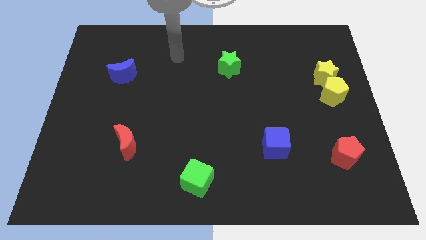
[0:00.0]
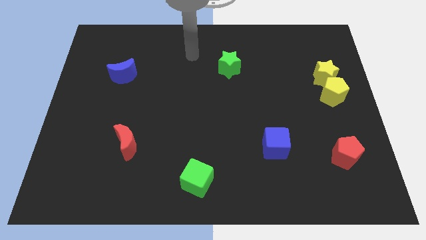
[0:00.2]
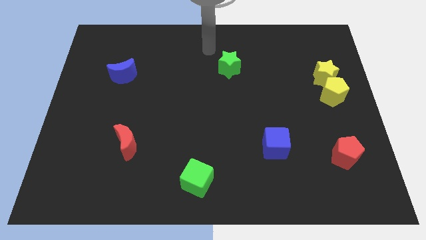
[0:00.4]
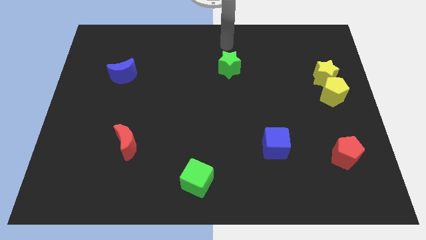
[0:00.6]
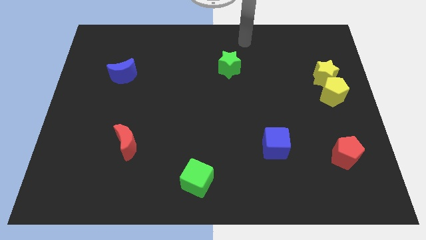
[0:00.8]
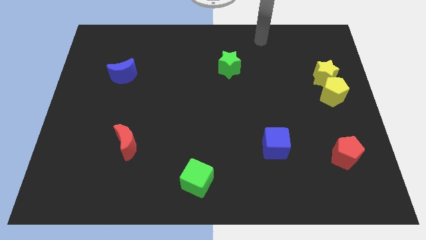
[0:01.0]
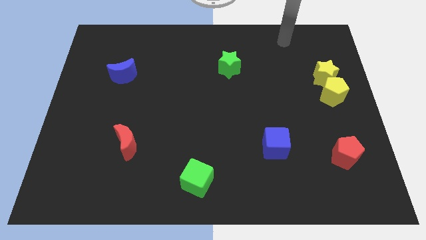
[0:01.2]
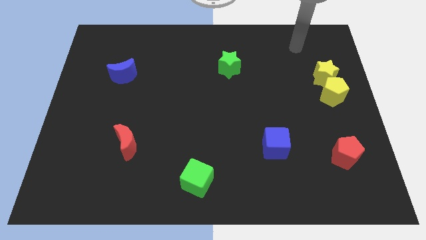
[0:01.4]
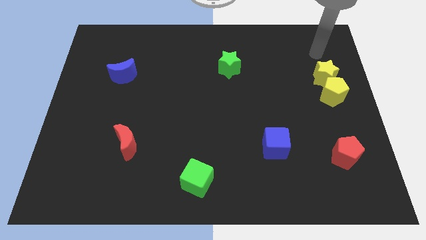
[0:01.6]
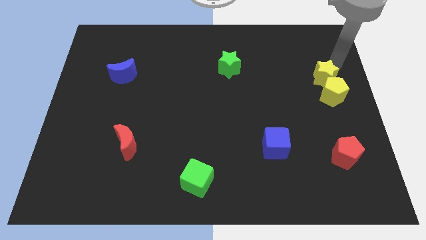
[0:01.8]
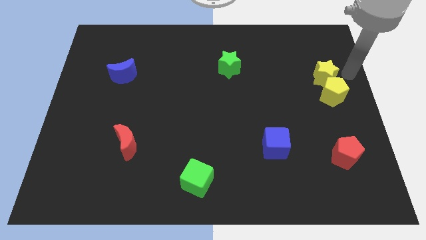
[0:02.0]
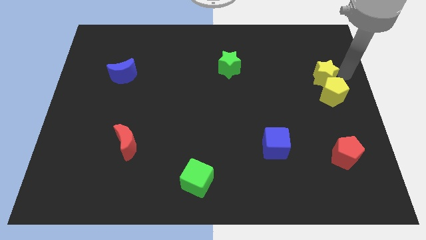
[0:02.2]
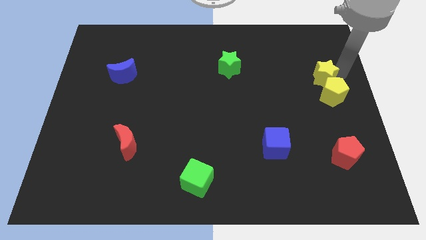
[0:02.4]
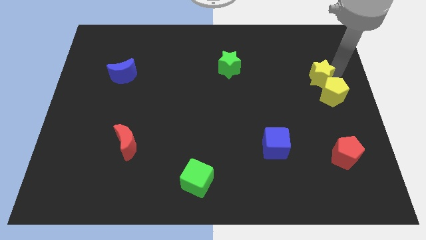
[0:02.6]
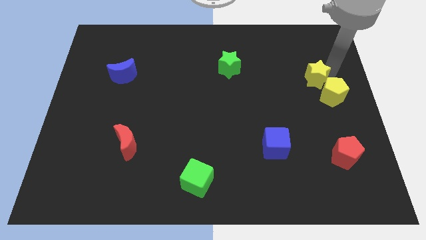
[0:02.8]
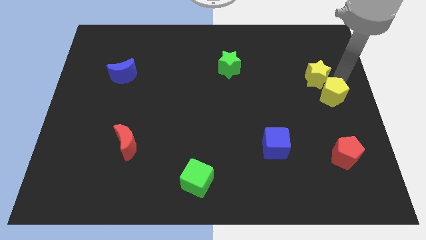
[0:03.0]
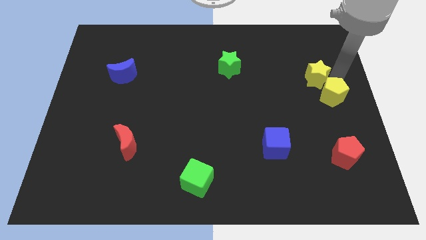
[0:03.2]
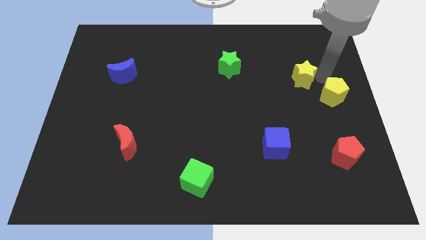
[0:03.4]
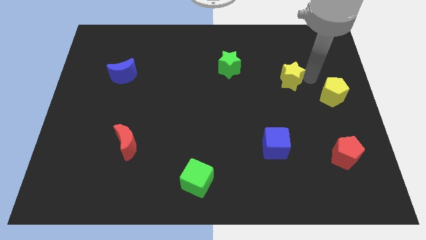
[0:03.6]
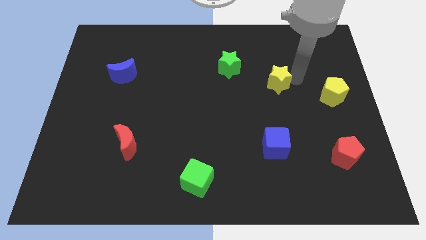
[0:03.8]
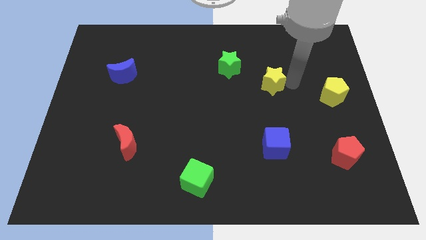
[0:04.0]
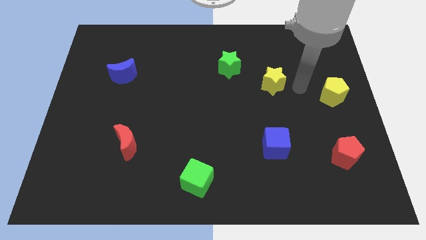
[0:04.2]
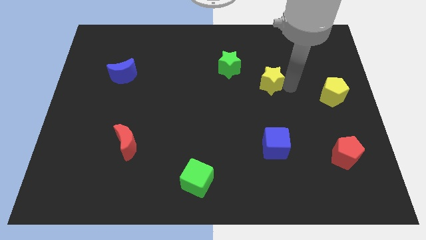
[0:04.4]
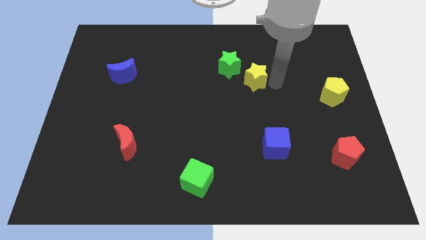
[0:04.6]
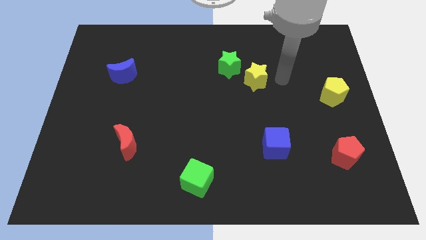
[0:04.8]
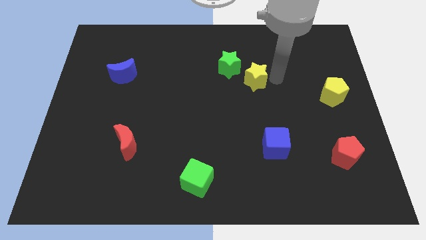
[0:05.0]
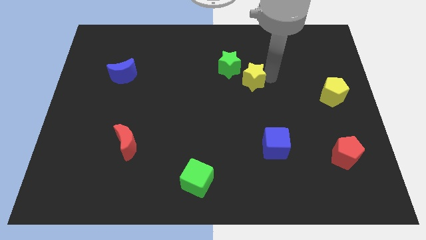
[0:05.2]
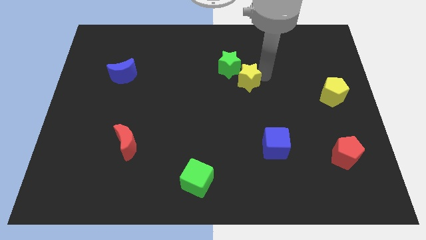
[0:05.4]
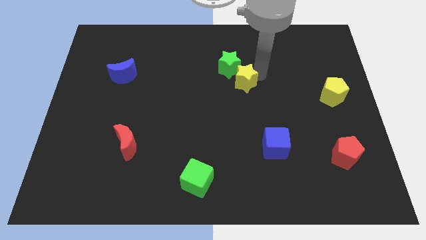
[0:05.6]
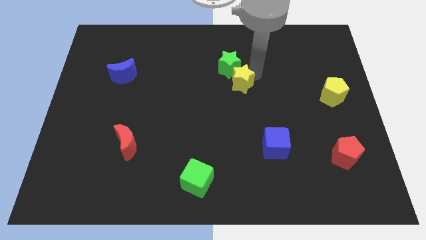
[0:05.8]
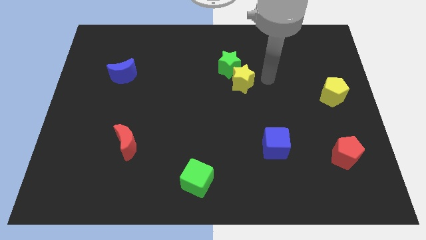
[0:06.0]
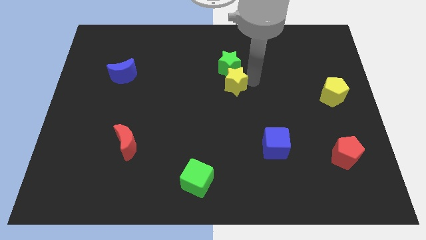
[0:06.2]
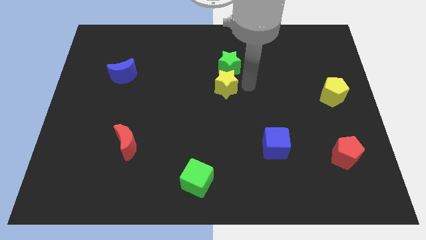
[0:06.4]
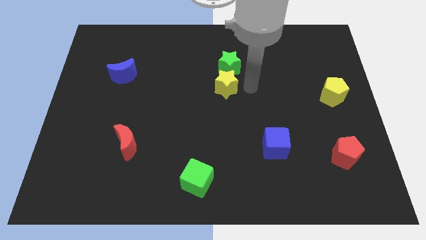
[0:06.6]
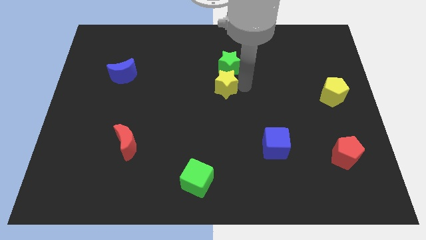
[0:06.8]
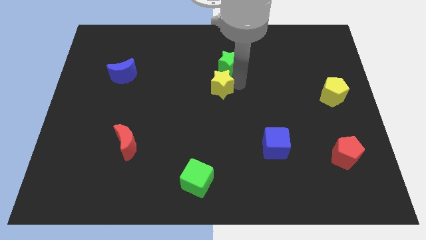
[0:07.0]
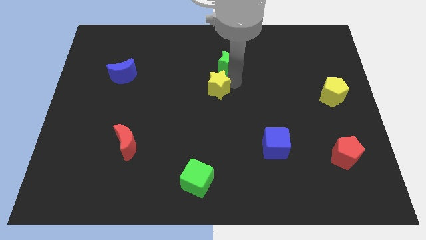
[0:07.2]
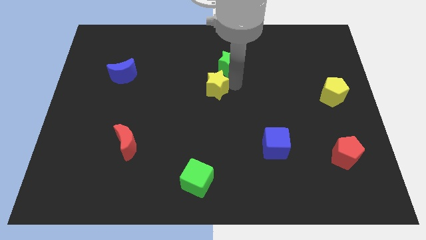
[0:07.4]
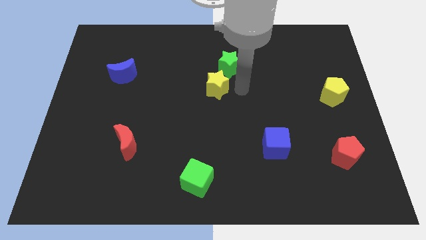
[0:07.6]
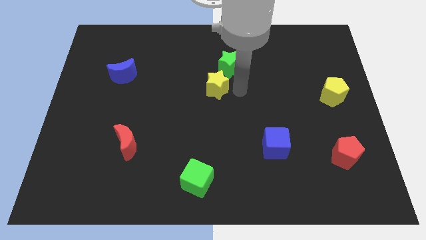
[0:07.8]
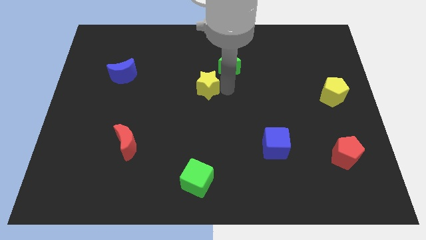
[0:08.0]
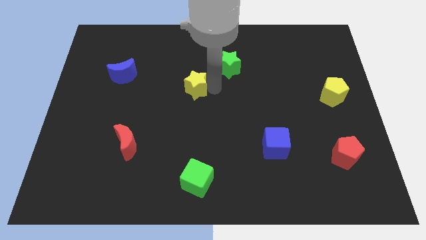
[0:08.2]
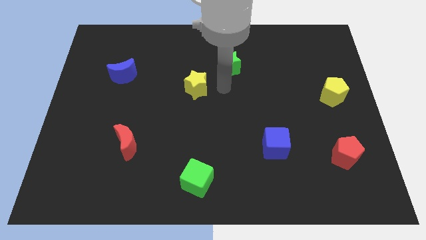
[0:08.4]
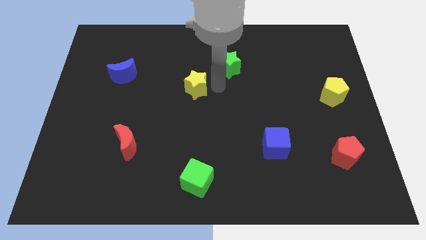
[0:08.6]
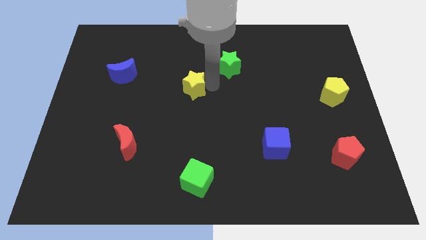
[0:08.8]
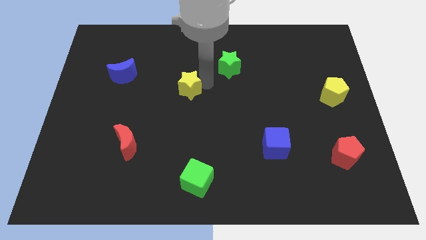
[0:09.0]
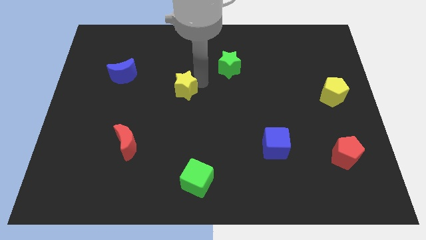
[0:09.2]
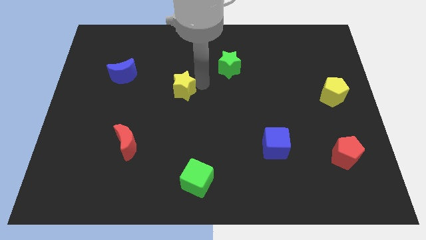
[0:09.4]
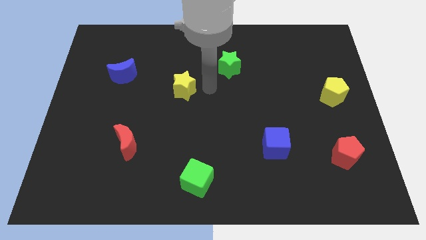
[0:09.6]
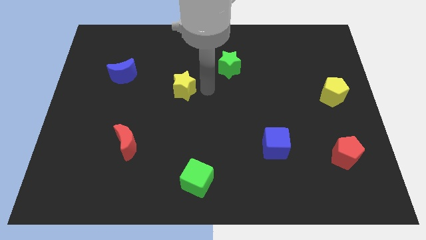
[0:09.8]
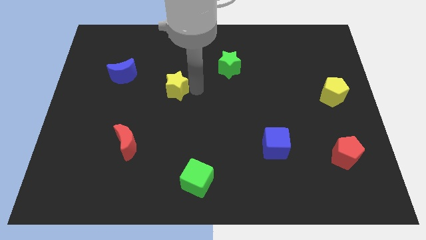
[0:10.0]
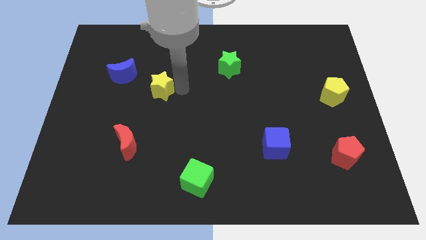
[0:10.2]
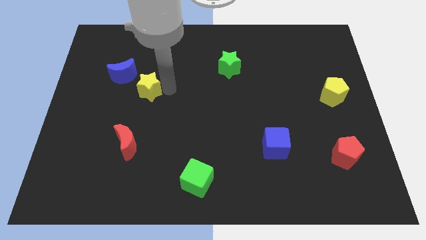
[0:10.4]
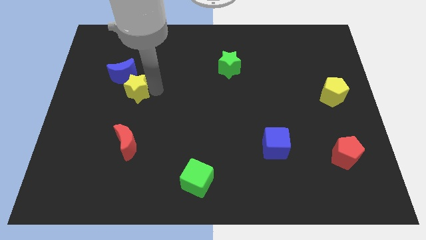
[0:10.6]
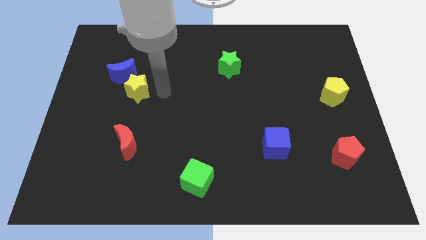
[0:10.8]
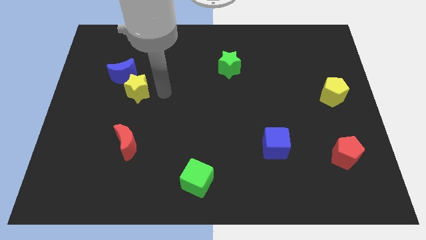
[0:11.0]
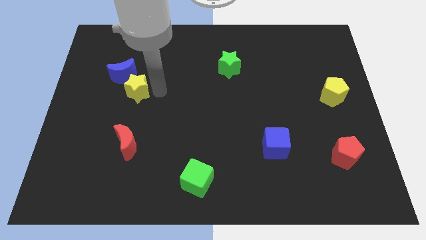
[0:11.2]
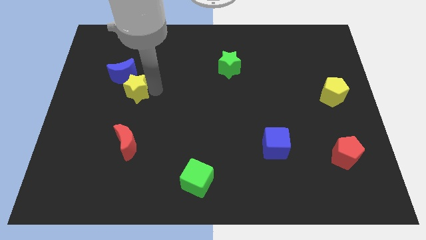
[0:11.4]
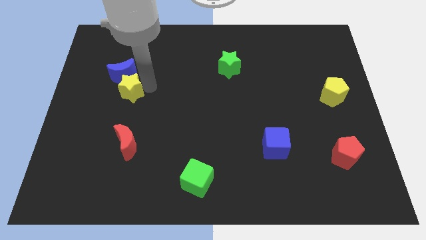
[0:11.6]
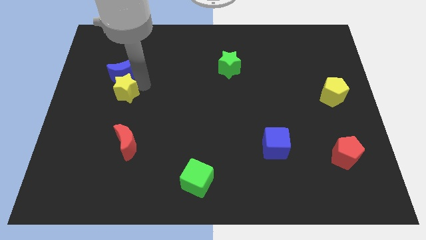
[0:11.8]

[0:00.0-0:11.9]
move the yellow star to the bottom left side of the blue moon
